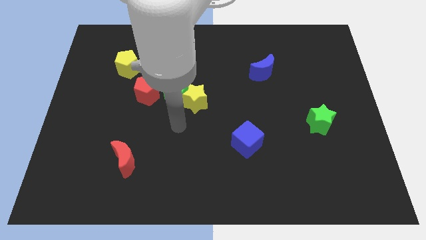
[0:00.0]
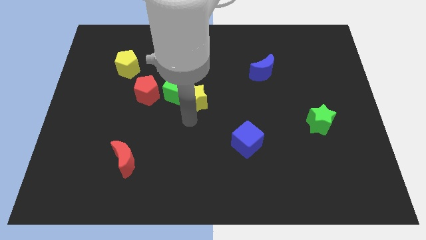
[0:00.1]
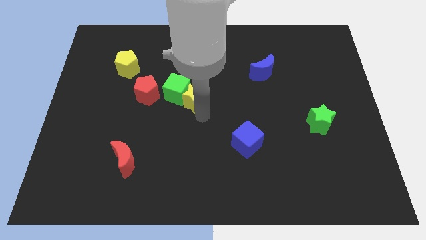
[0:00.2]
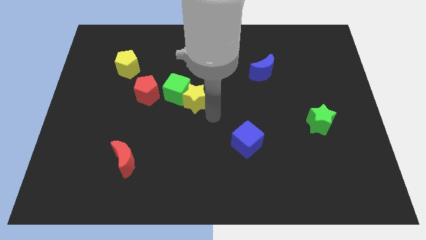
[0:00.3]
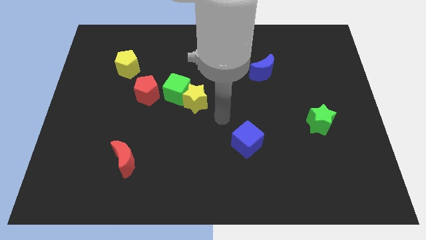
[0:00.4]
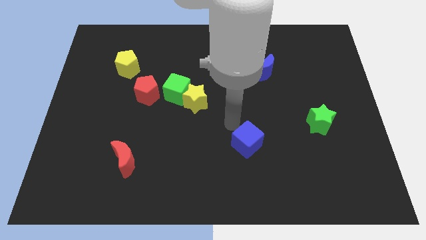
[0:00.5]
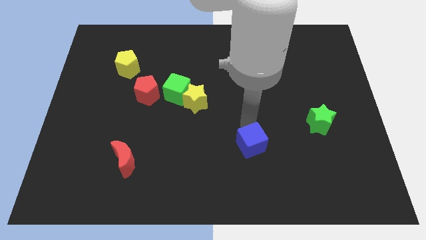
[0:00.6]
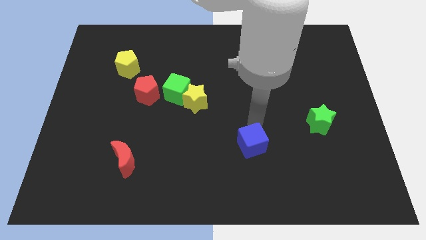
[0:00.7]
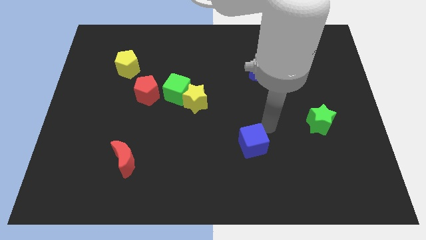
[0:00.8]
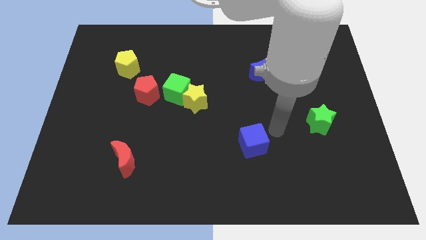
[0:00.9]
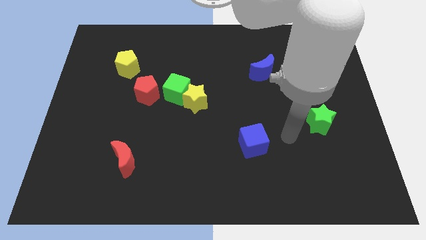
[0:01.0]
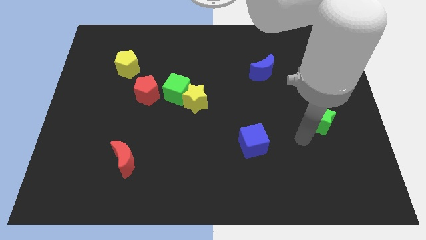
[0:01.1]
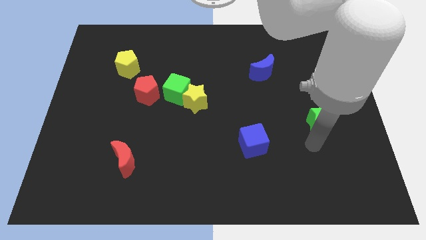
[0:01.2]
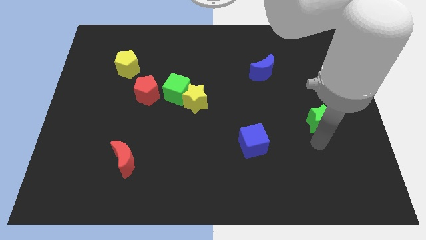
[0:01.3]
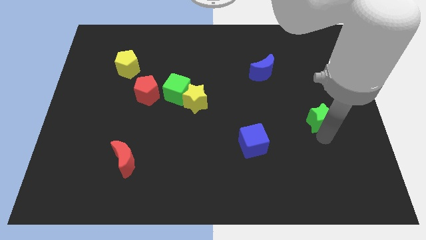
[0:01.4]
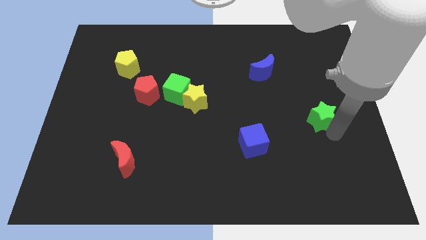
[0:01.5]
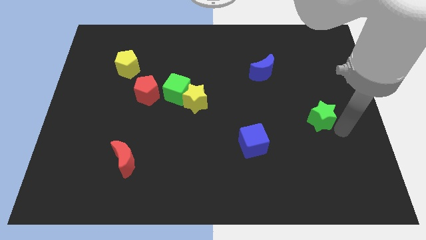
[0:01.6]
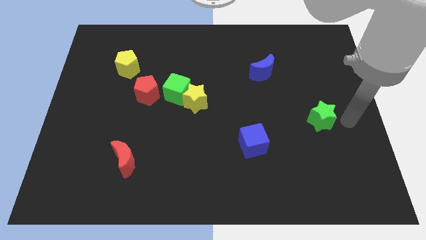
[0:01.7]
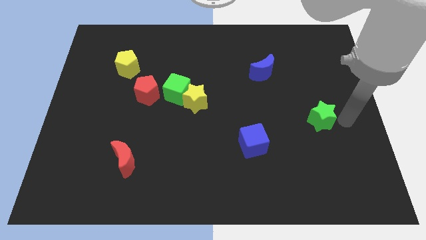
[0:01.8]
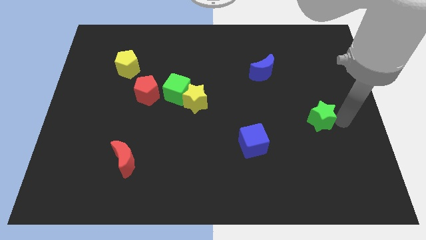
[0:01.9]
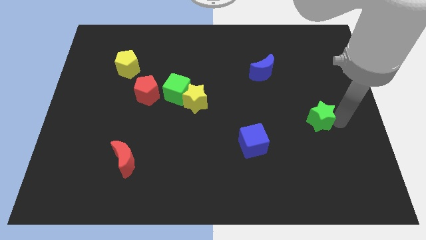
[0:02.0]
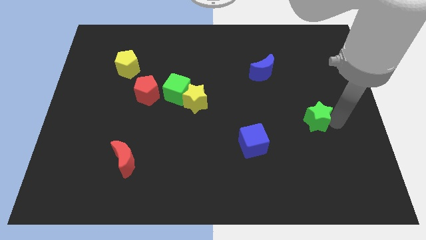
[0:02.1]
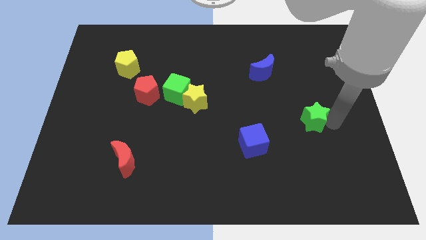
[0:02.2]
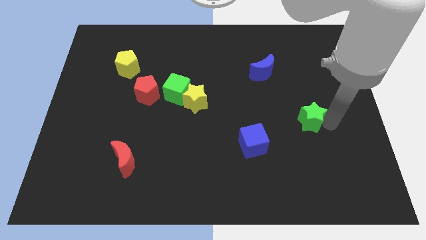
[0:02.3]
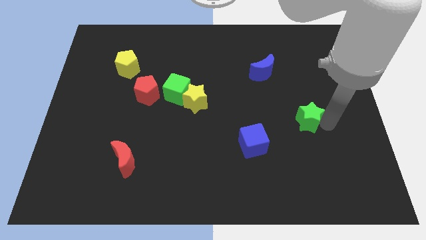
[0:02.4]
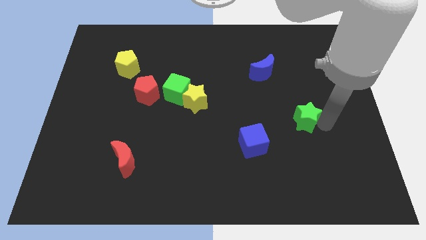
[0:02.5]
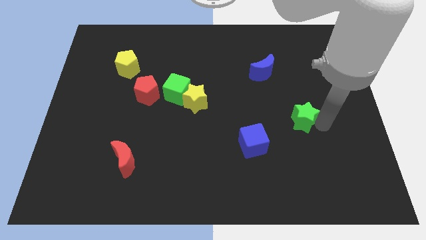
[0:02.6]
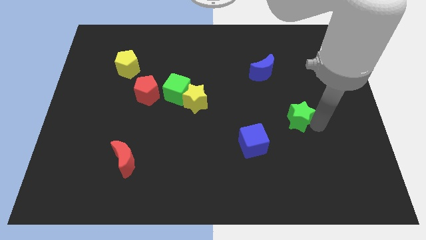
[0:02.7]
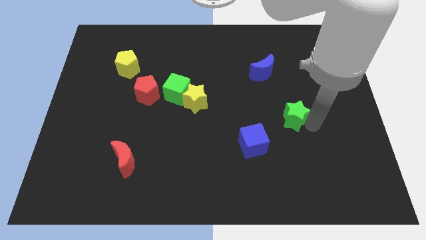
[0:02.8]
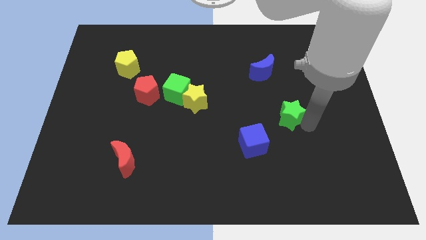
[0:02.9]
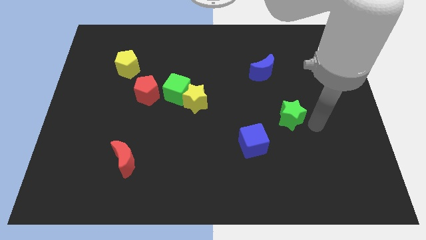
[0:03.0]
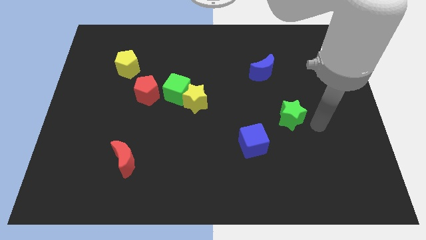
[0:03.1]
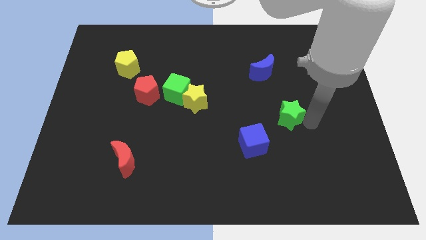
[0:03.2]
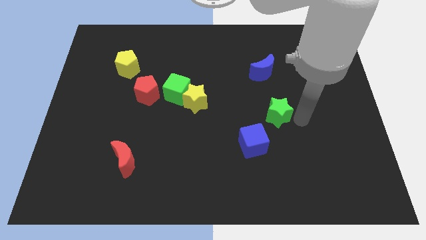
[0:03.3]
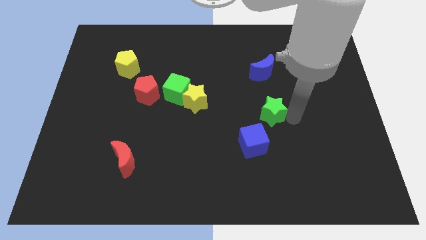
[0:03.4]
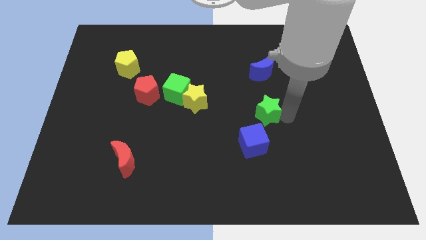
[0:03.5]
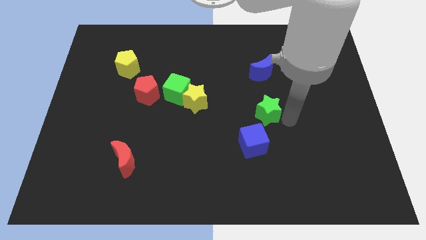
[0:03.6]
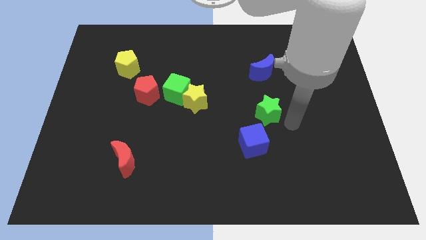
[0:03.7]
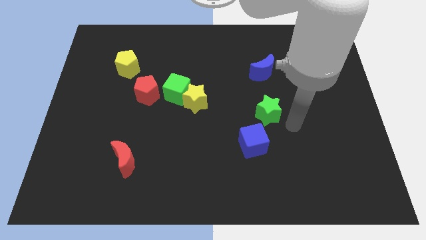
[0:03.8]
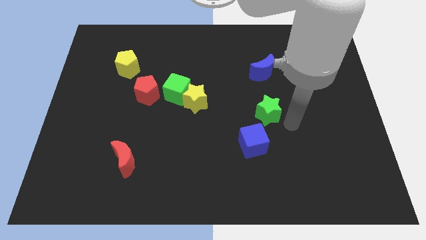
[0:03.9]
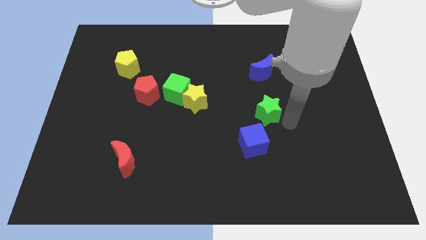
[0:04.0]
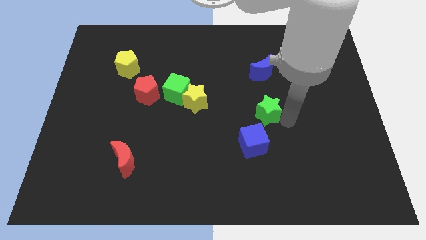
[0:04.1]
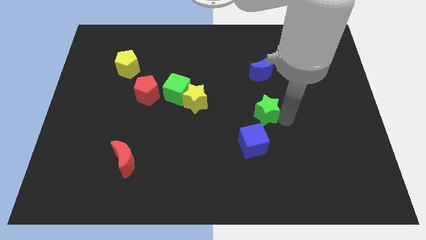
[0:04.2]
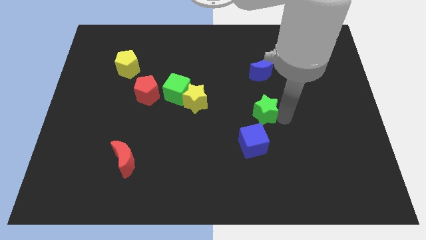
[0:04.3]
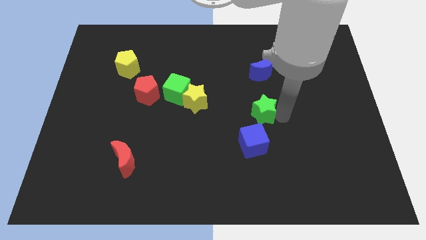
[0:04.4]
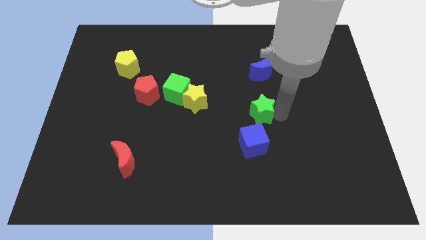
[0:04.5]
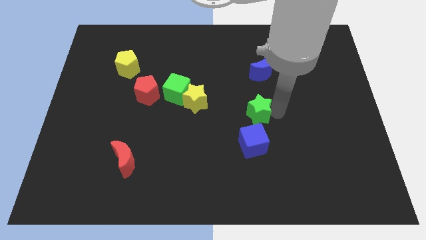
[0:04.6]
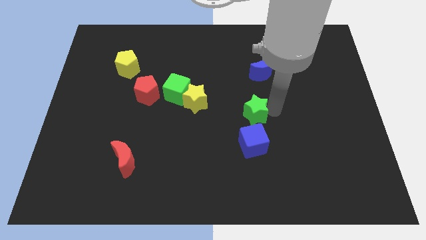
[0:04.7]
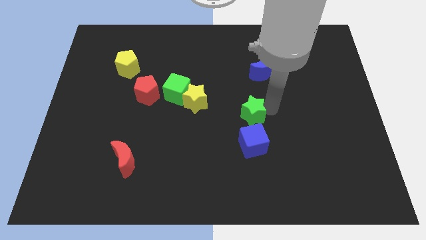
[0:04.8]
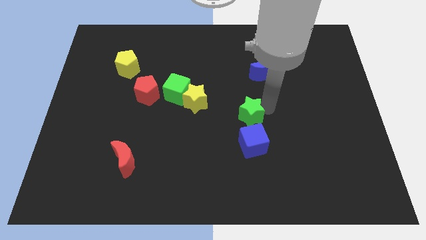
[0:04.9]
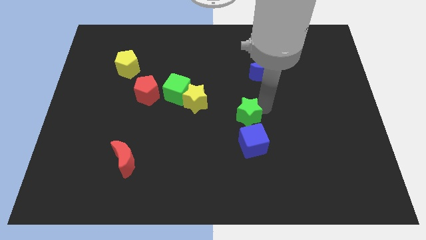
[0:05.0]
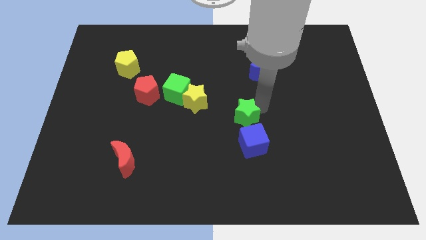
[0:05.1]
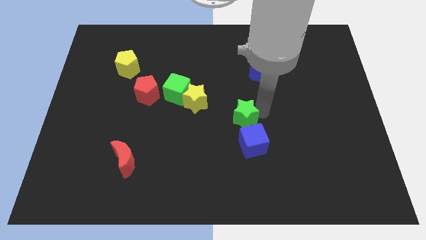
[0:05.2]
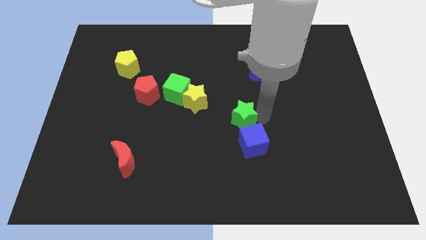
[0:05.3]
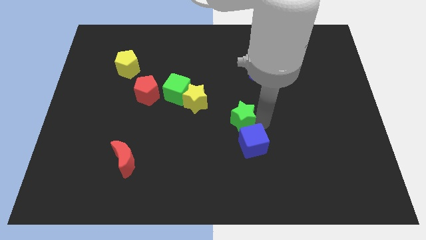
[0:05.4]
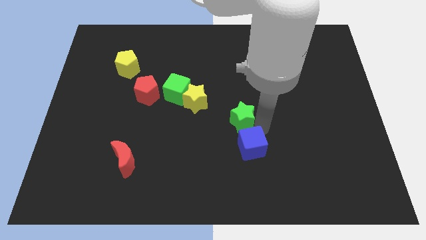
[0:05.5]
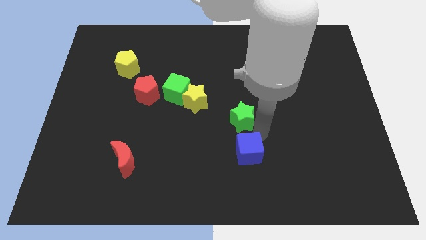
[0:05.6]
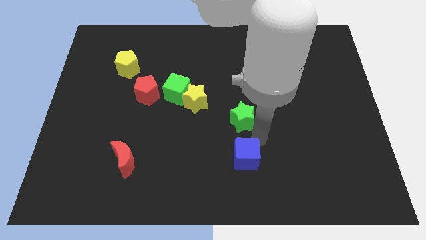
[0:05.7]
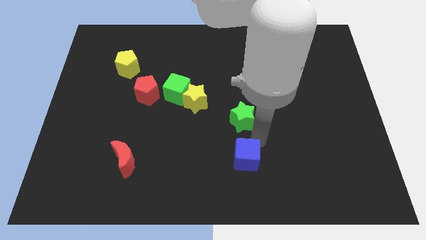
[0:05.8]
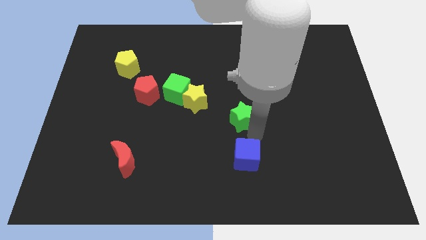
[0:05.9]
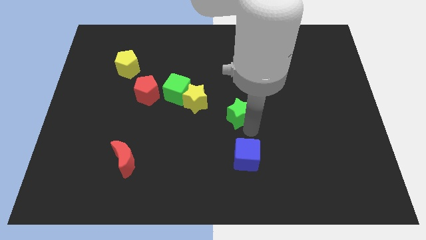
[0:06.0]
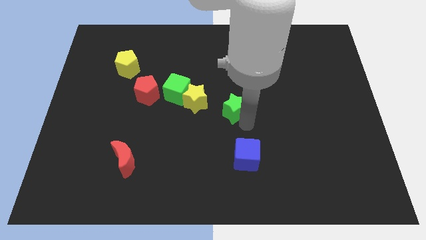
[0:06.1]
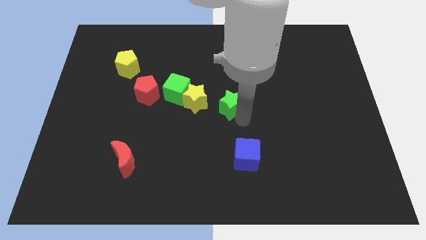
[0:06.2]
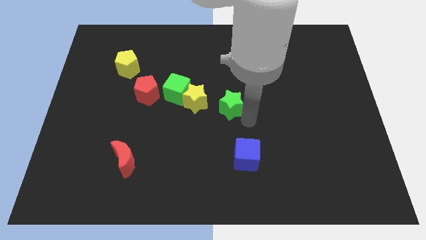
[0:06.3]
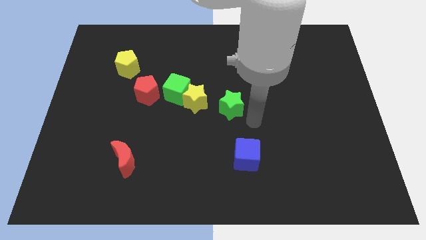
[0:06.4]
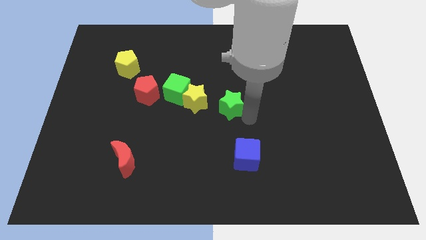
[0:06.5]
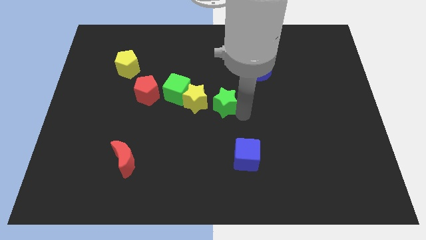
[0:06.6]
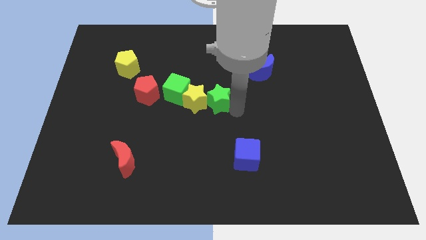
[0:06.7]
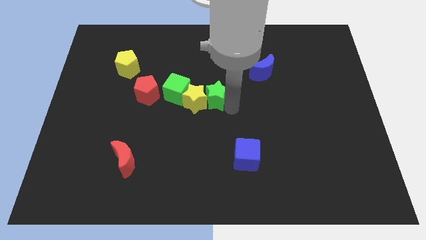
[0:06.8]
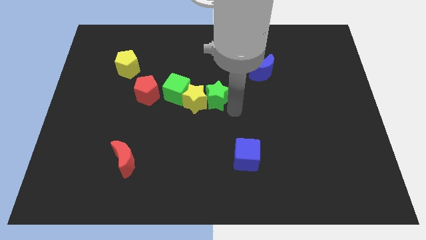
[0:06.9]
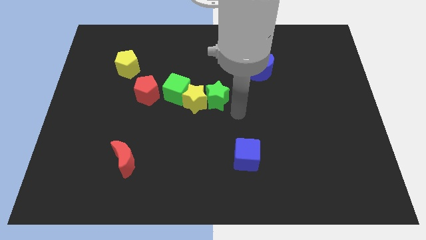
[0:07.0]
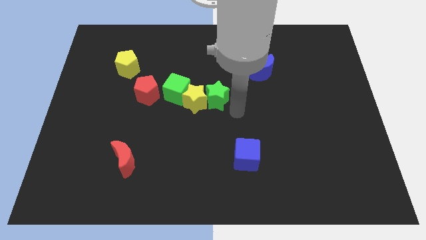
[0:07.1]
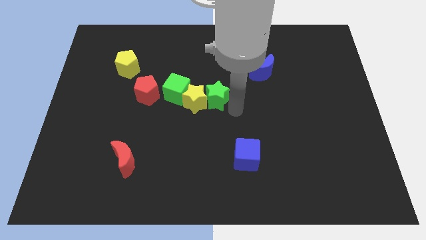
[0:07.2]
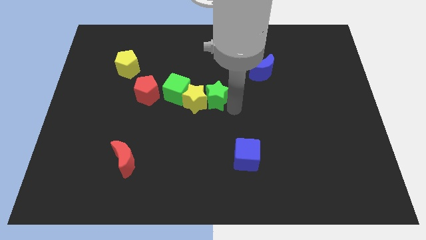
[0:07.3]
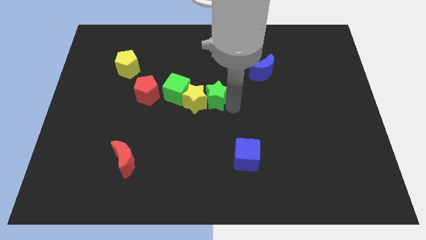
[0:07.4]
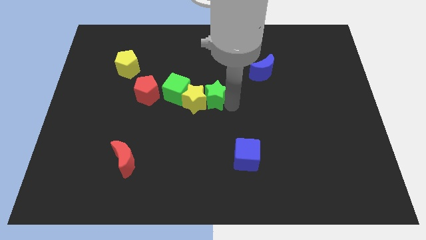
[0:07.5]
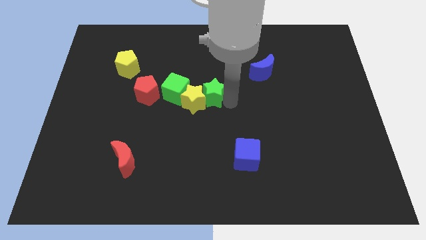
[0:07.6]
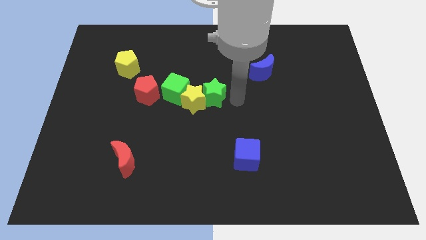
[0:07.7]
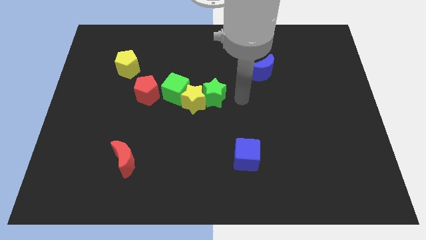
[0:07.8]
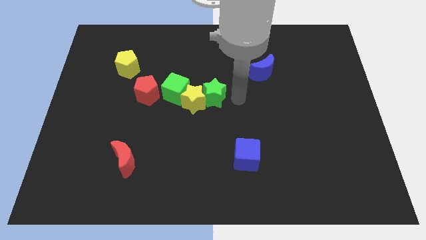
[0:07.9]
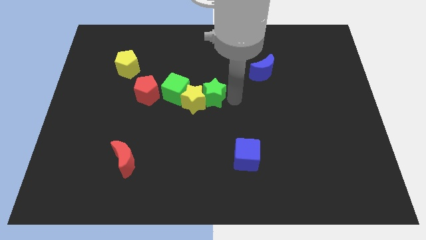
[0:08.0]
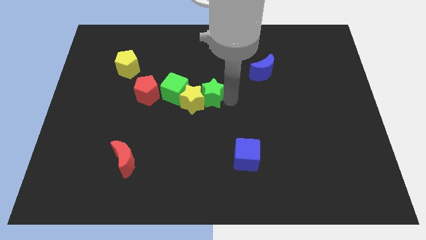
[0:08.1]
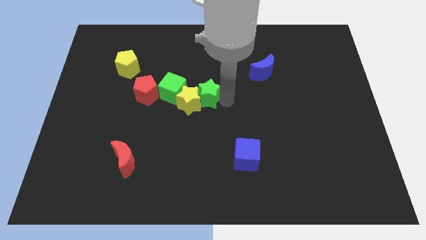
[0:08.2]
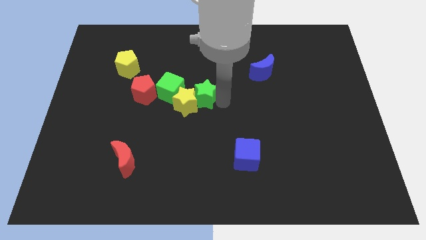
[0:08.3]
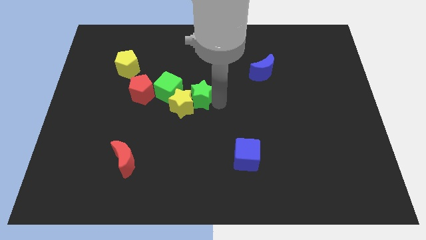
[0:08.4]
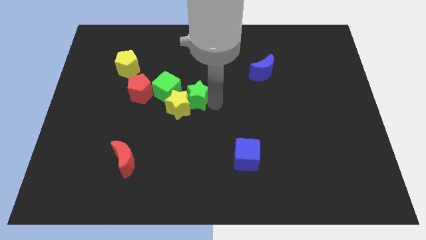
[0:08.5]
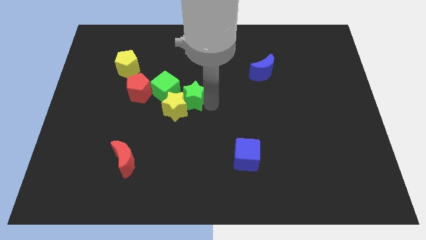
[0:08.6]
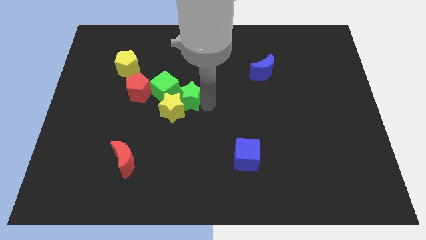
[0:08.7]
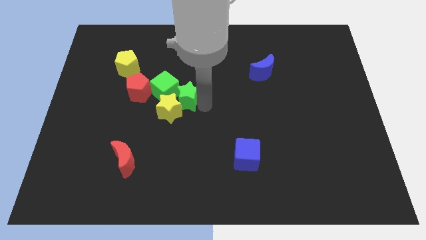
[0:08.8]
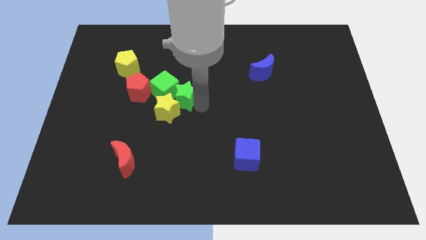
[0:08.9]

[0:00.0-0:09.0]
put the green star close to the green cube
